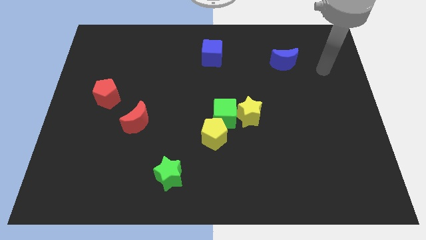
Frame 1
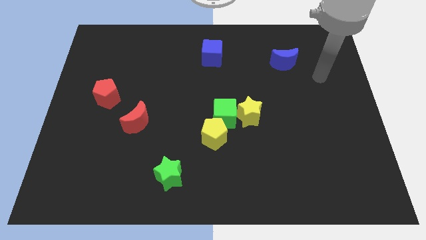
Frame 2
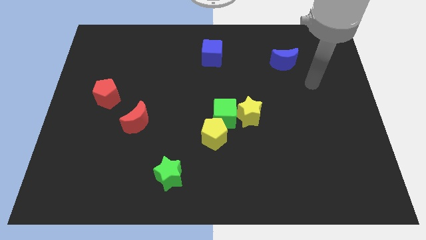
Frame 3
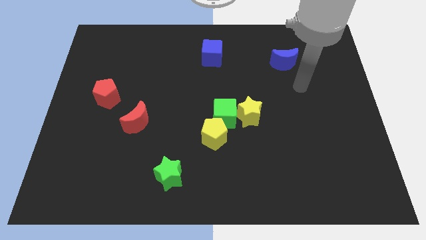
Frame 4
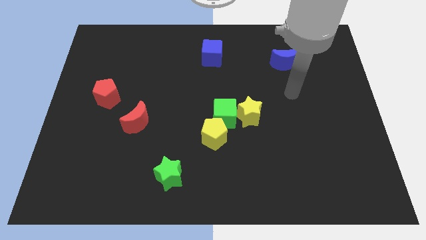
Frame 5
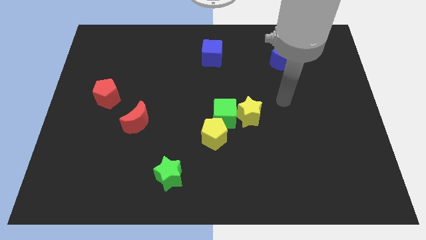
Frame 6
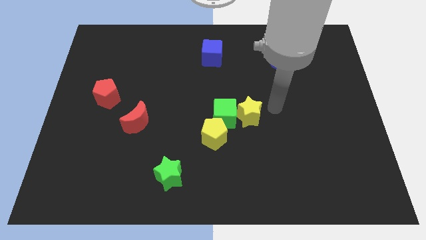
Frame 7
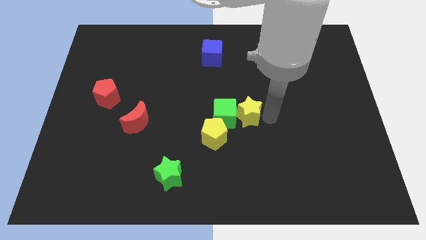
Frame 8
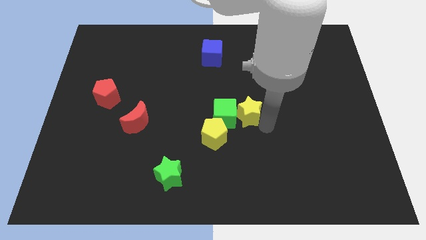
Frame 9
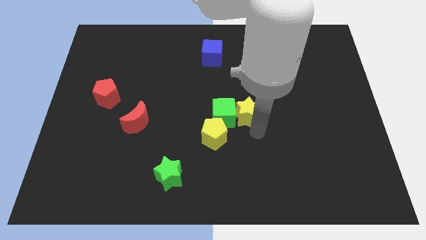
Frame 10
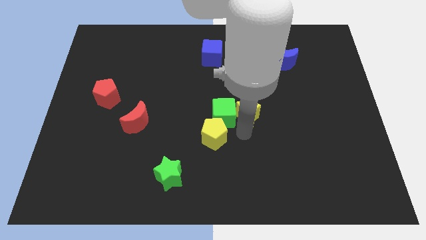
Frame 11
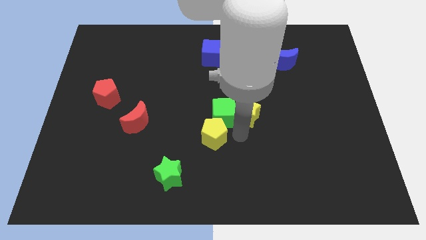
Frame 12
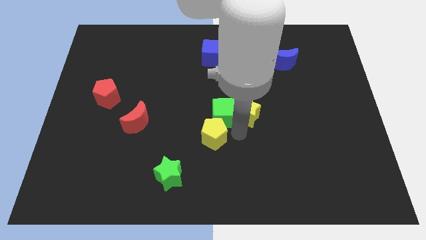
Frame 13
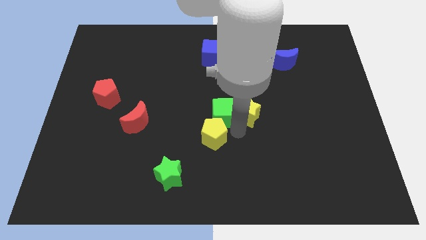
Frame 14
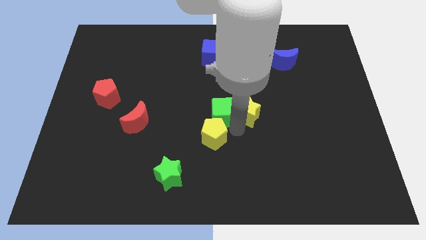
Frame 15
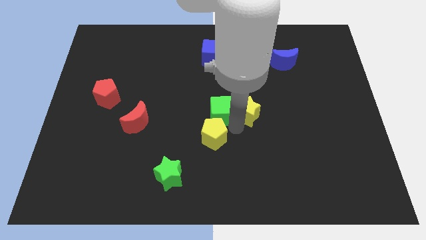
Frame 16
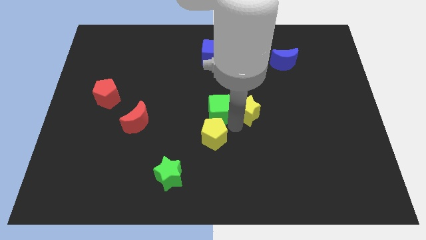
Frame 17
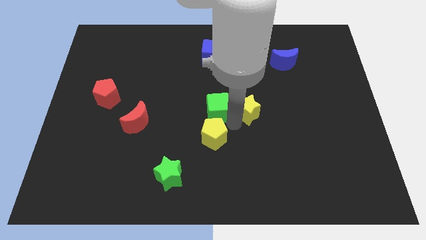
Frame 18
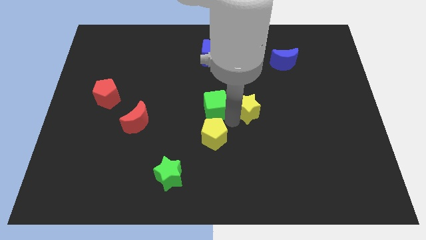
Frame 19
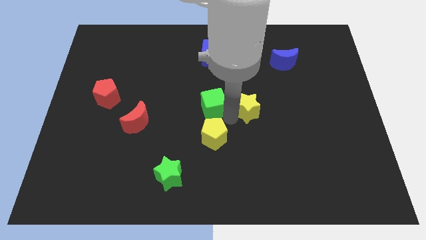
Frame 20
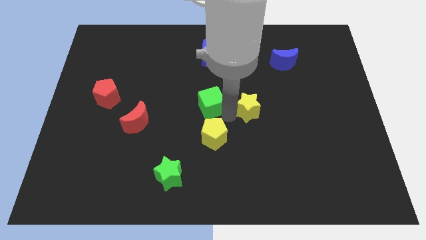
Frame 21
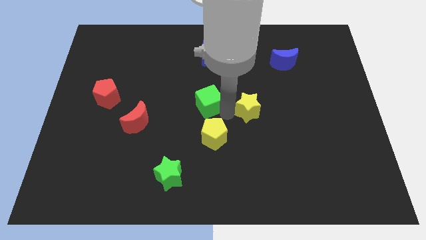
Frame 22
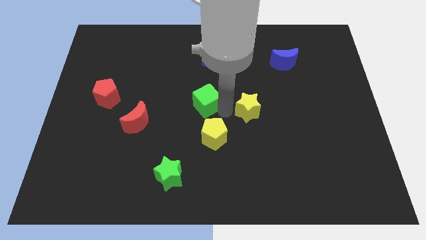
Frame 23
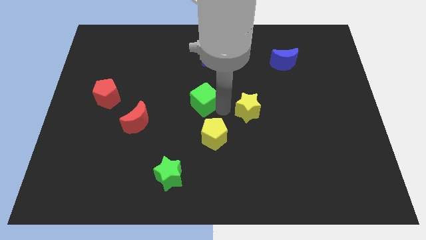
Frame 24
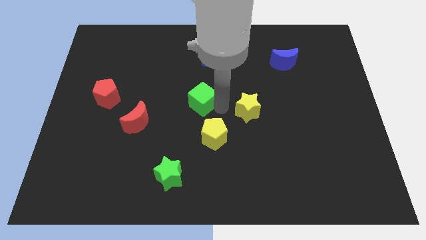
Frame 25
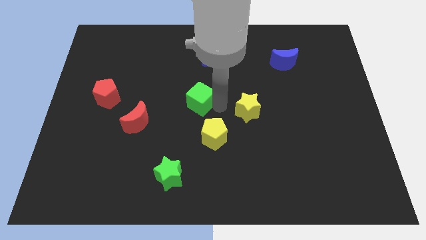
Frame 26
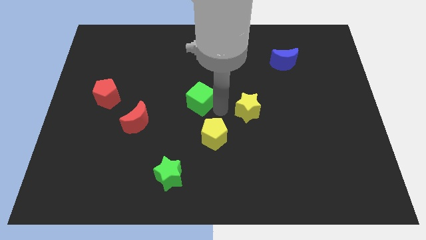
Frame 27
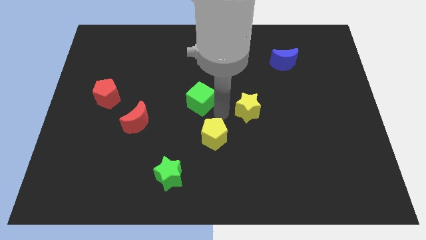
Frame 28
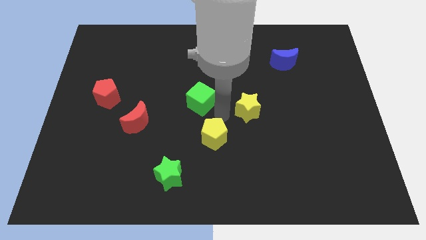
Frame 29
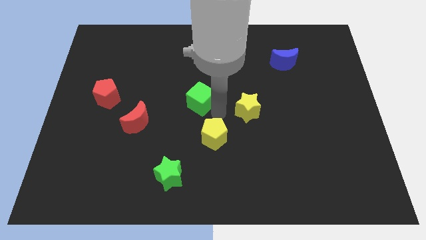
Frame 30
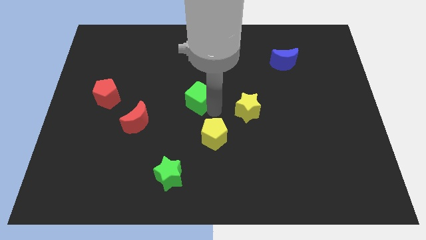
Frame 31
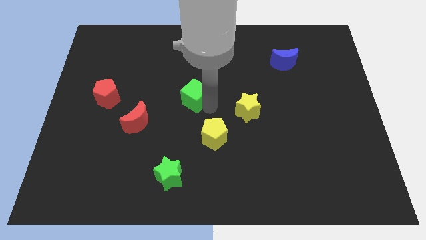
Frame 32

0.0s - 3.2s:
move the green cube away from the yellow star and yellow pentagon

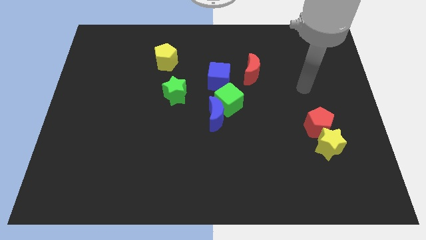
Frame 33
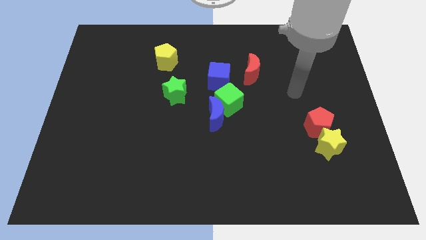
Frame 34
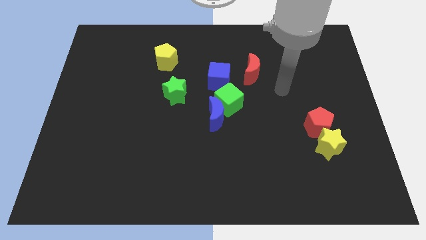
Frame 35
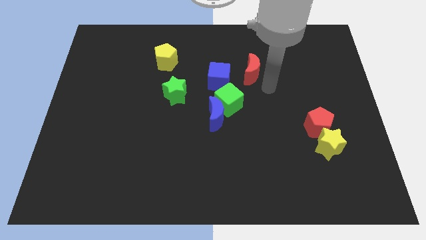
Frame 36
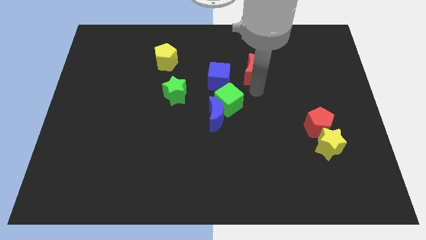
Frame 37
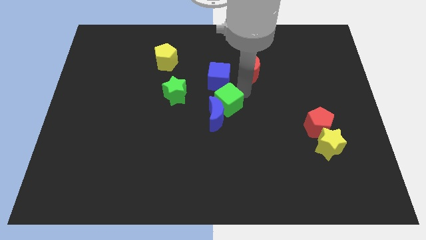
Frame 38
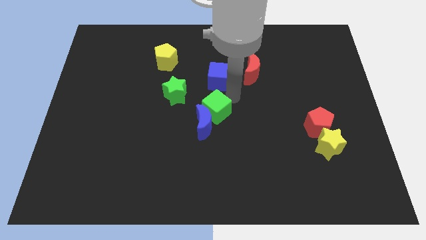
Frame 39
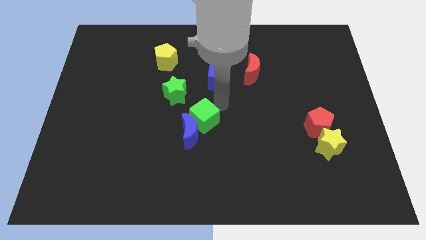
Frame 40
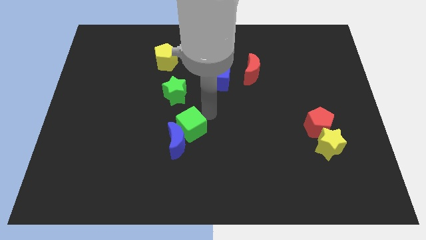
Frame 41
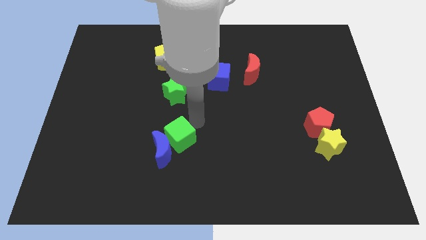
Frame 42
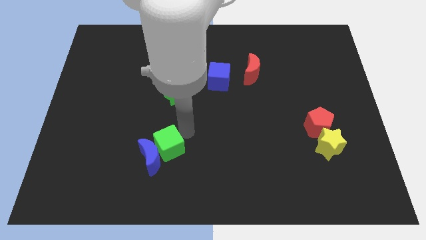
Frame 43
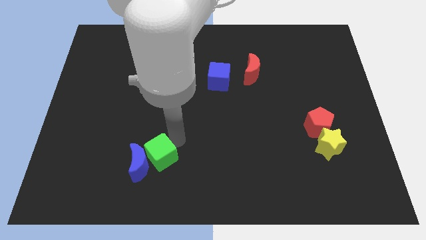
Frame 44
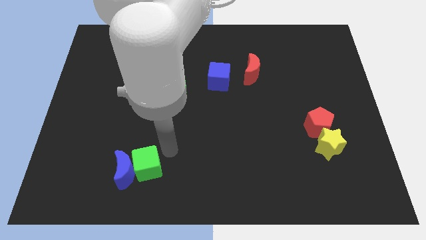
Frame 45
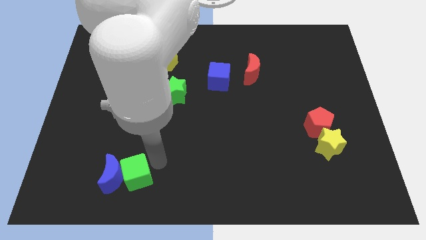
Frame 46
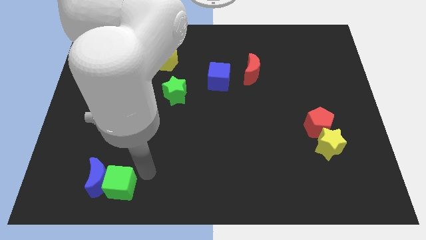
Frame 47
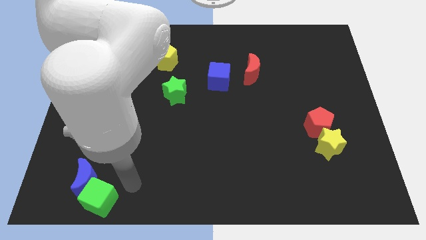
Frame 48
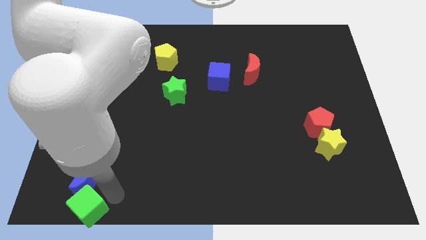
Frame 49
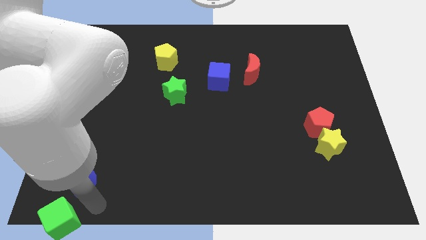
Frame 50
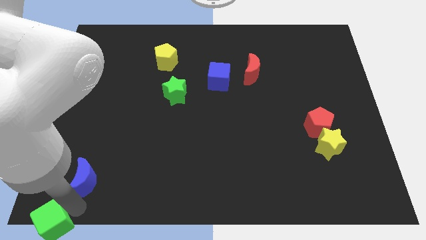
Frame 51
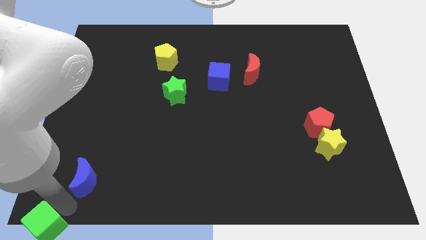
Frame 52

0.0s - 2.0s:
separate the blue moon from the green cube

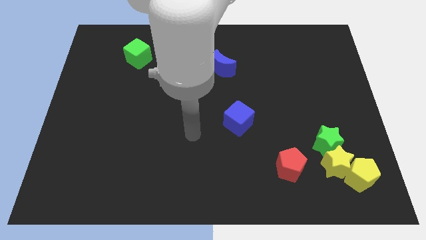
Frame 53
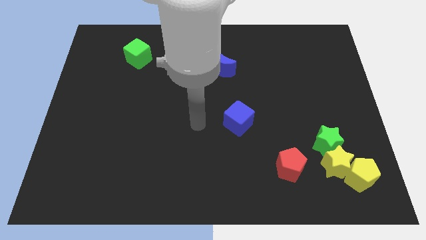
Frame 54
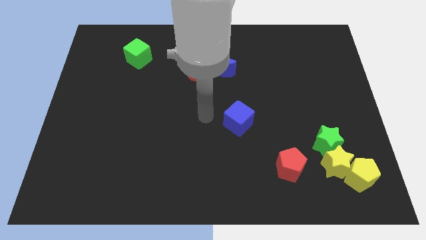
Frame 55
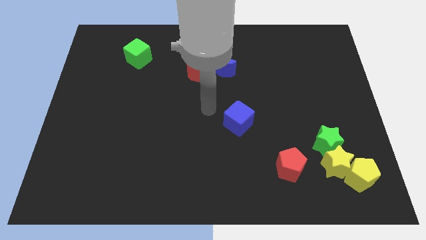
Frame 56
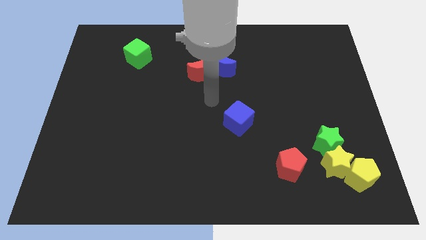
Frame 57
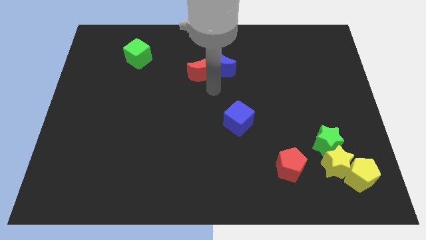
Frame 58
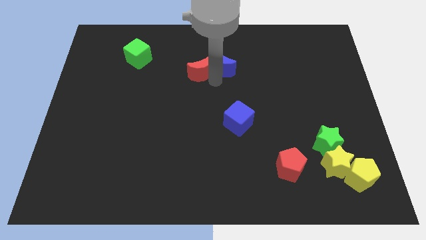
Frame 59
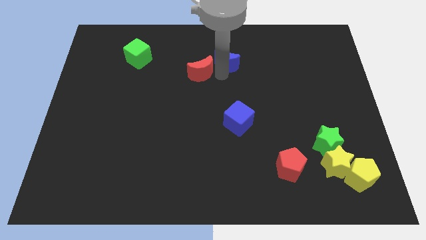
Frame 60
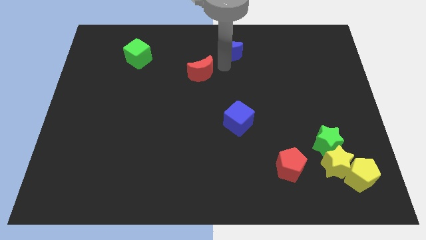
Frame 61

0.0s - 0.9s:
move the red moon away from the blue moon

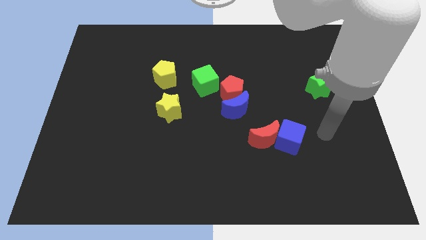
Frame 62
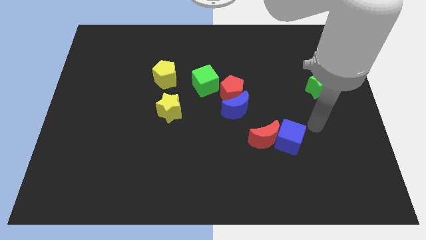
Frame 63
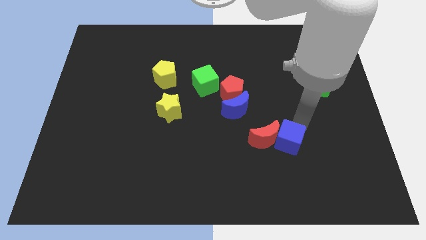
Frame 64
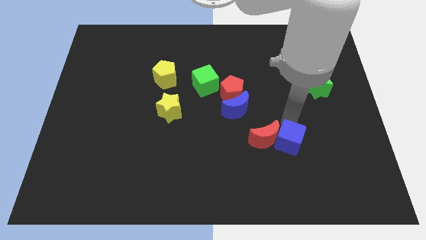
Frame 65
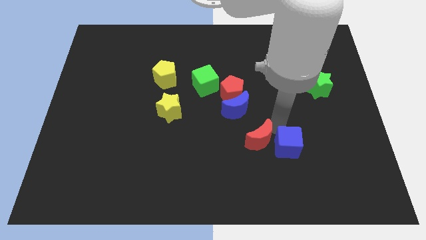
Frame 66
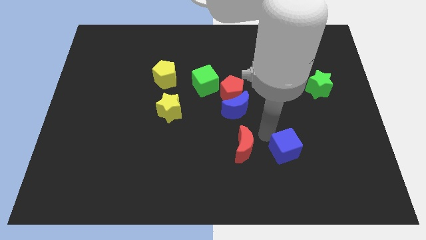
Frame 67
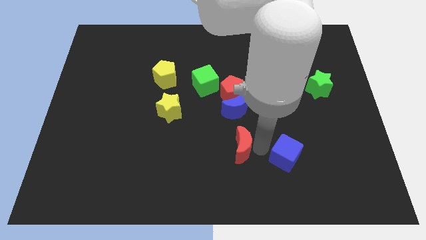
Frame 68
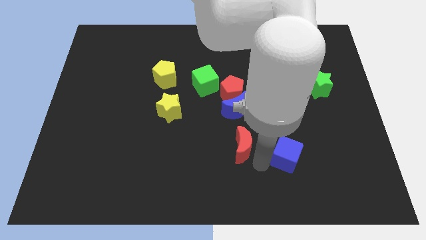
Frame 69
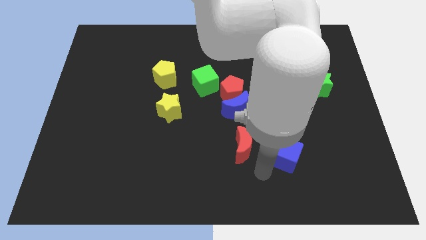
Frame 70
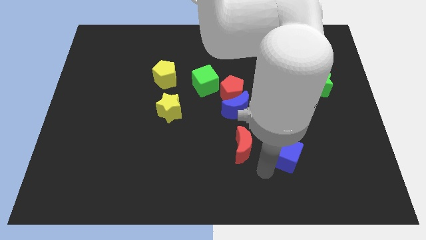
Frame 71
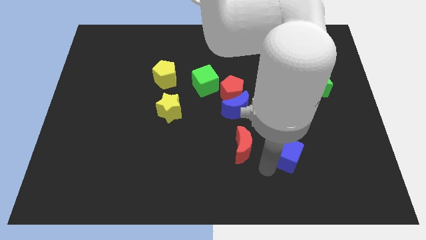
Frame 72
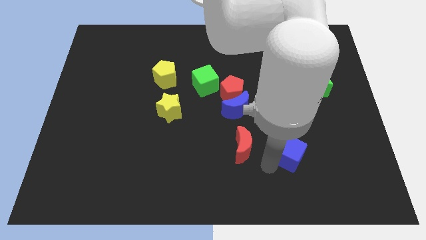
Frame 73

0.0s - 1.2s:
pull the blue cube apart from the red moon

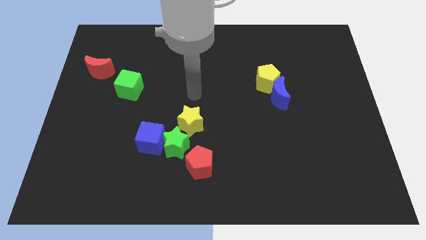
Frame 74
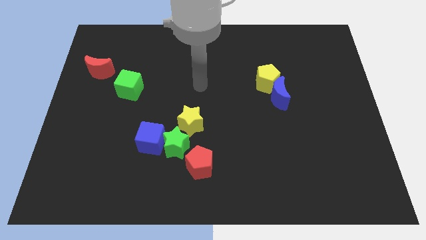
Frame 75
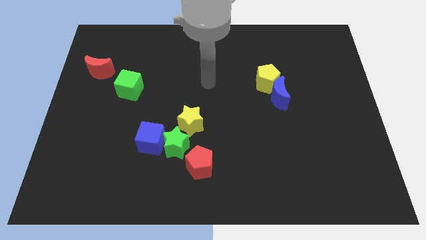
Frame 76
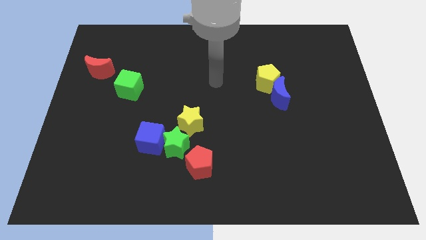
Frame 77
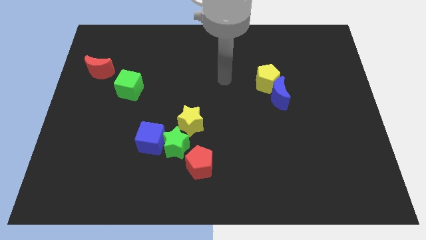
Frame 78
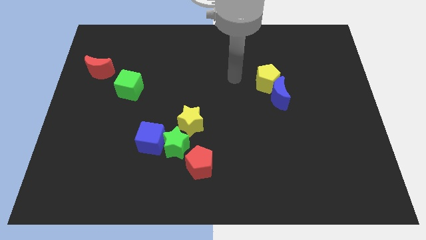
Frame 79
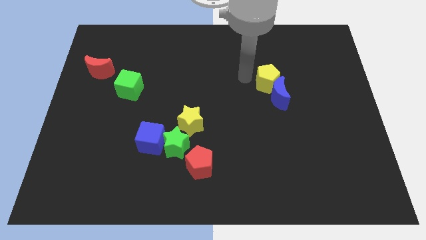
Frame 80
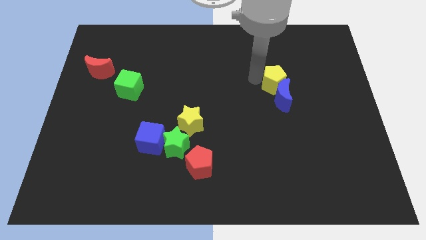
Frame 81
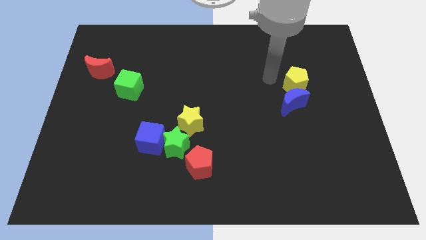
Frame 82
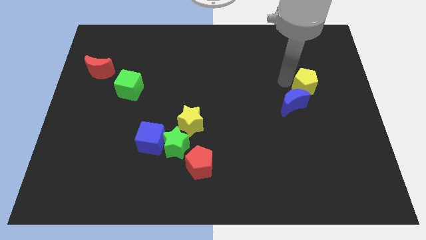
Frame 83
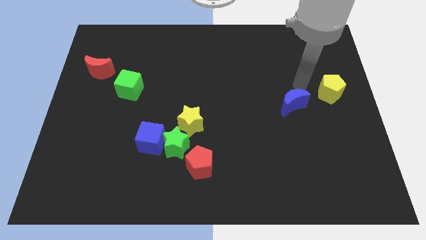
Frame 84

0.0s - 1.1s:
move the blue moon away from the yellow pentagon

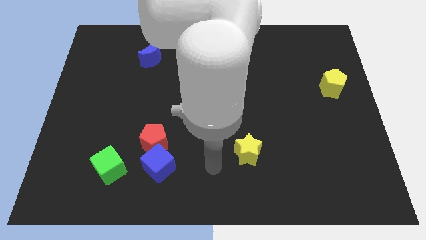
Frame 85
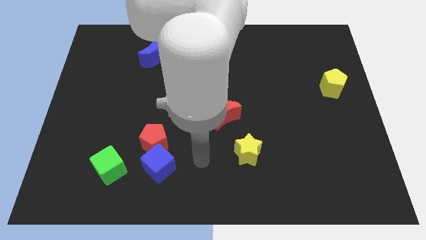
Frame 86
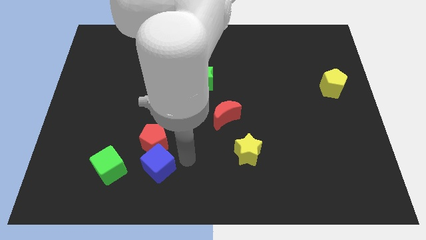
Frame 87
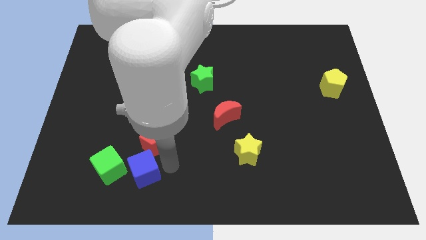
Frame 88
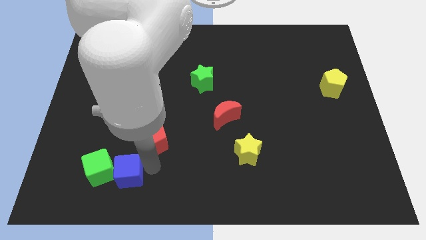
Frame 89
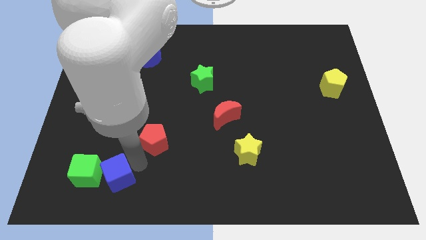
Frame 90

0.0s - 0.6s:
separate the red pentagon from the blue cube

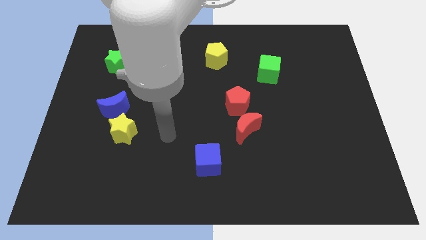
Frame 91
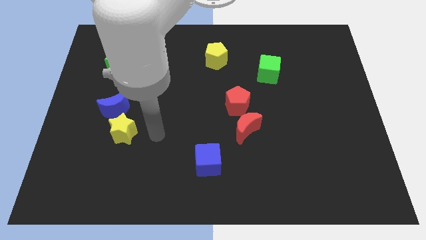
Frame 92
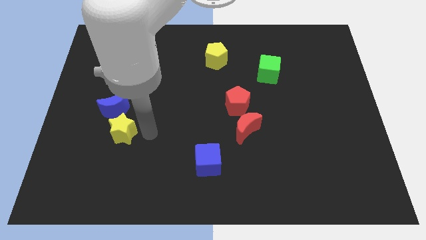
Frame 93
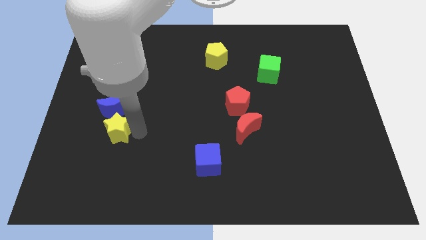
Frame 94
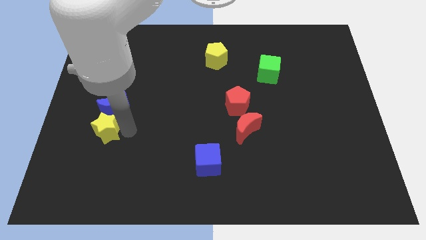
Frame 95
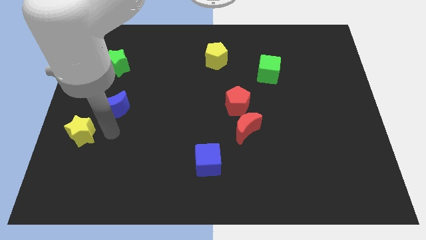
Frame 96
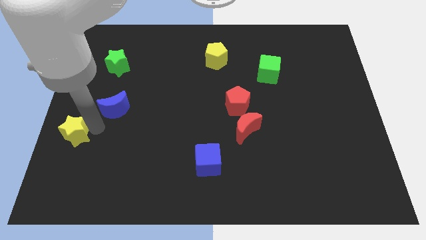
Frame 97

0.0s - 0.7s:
pull the blue moon apart from the yellow star
